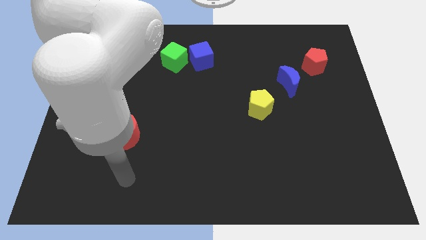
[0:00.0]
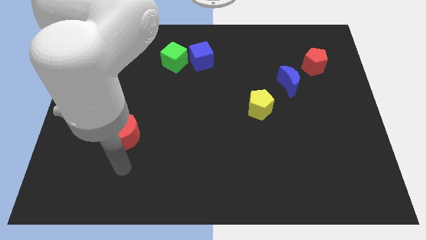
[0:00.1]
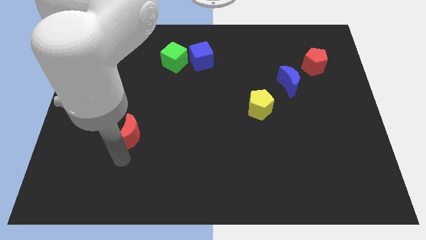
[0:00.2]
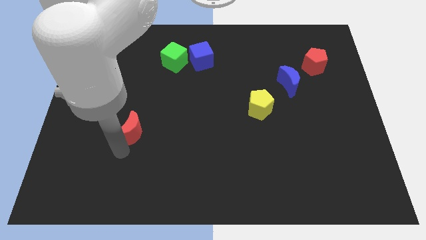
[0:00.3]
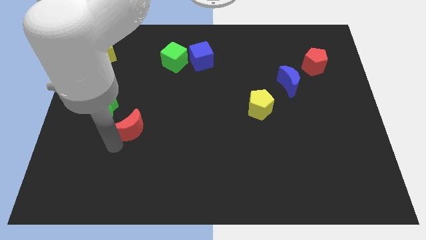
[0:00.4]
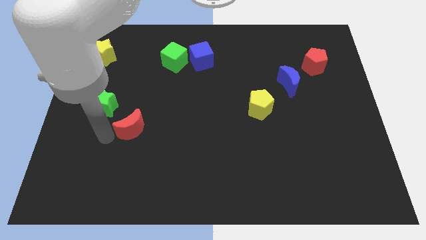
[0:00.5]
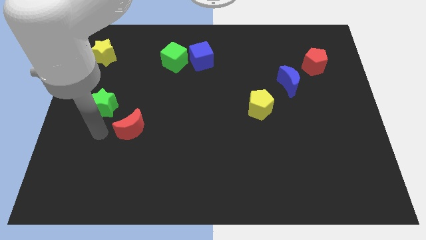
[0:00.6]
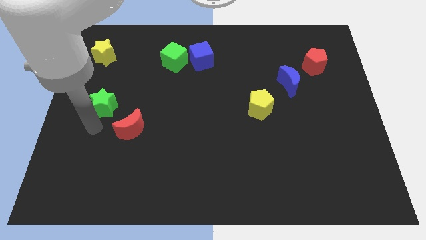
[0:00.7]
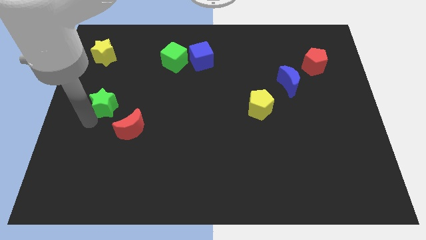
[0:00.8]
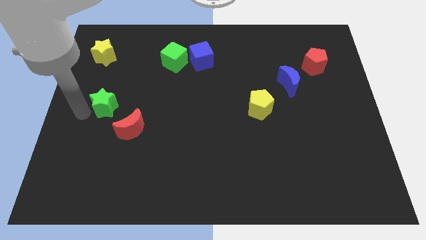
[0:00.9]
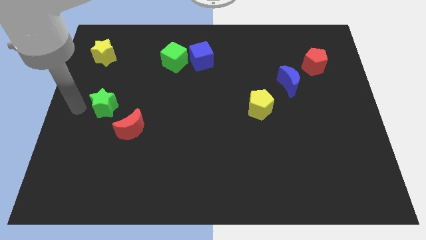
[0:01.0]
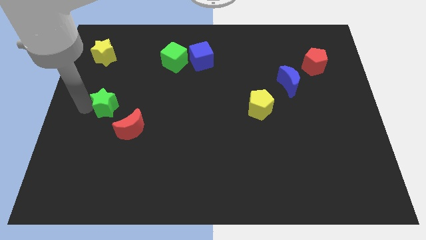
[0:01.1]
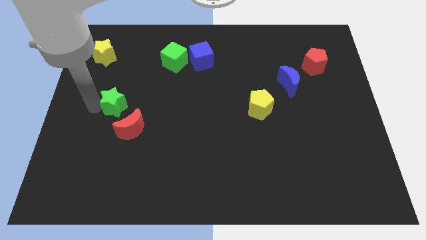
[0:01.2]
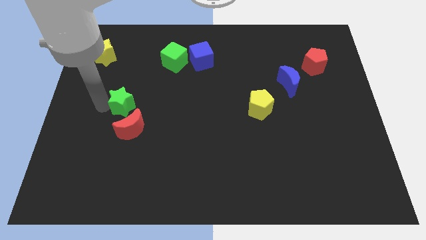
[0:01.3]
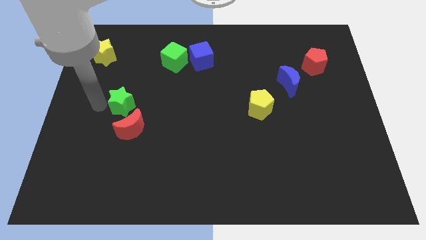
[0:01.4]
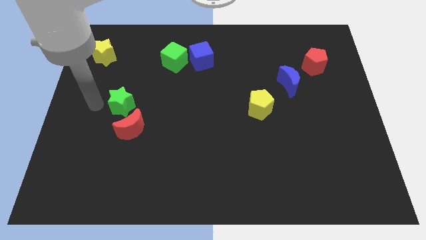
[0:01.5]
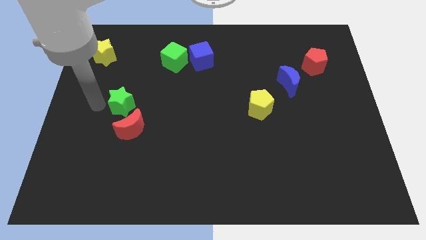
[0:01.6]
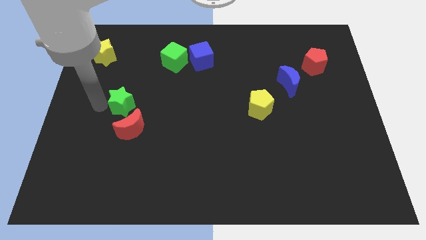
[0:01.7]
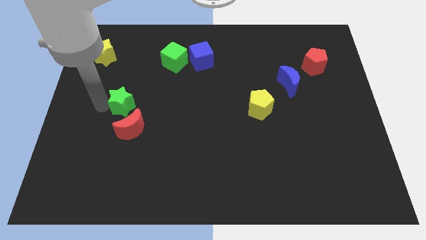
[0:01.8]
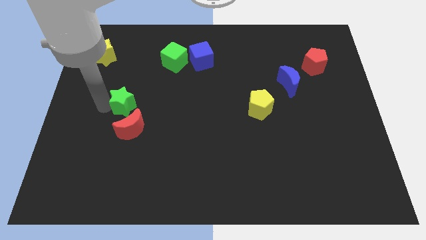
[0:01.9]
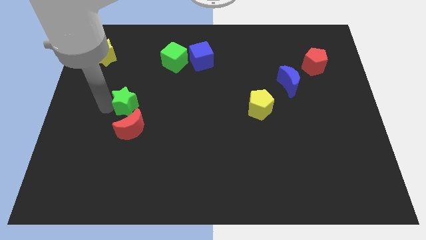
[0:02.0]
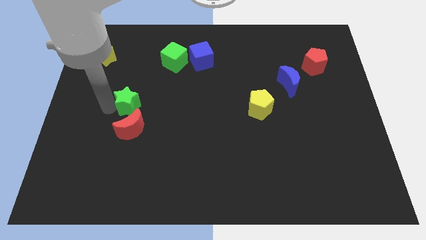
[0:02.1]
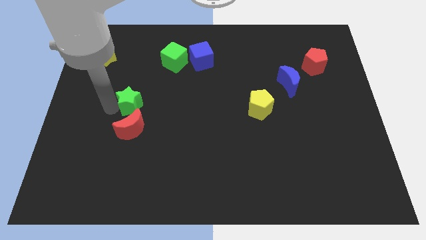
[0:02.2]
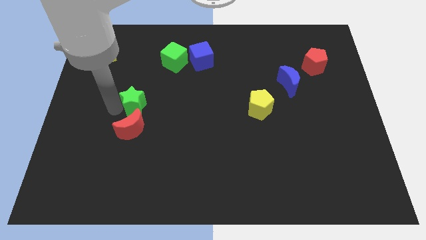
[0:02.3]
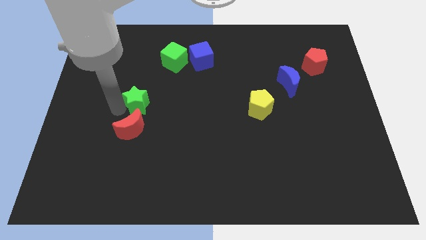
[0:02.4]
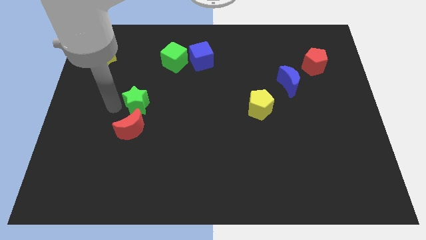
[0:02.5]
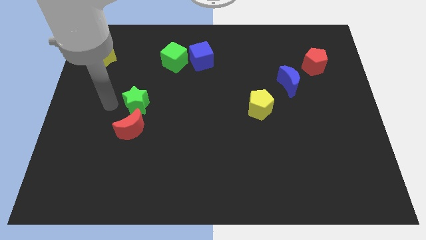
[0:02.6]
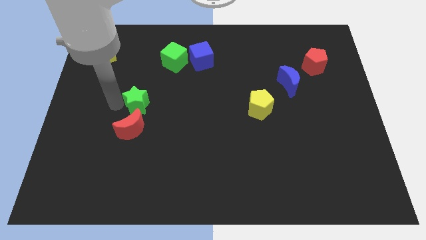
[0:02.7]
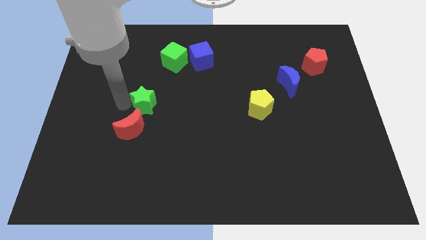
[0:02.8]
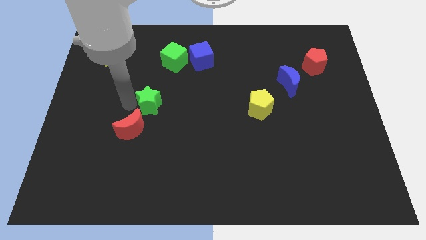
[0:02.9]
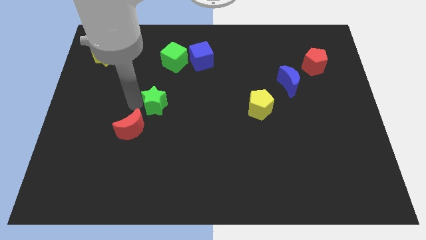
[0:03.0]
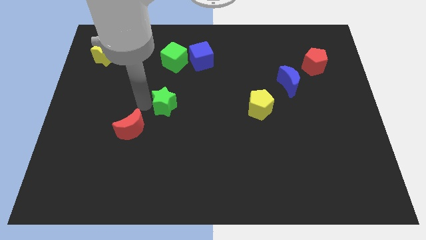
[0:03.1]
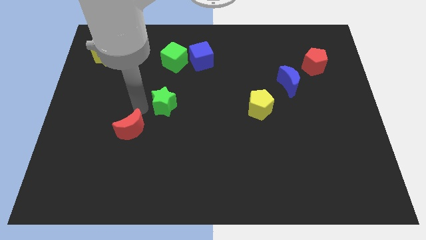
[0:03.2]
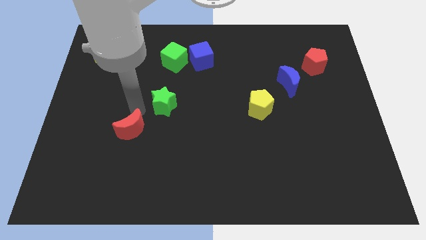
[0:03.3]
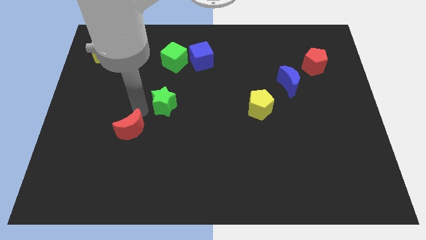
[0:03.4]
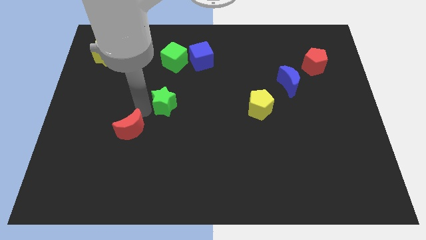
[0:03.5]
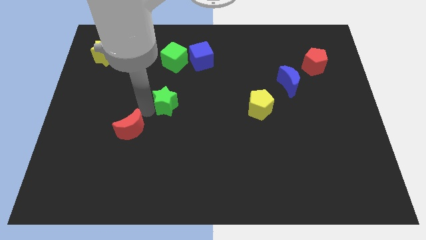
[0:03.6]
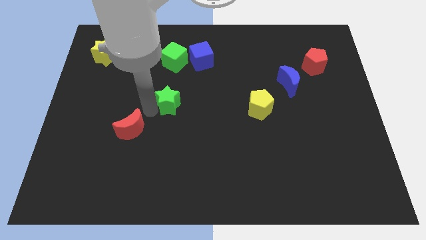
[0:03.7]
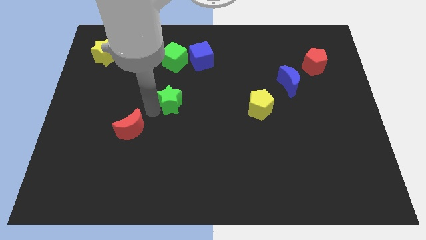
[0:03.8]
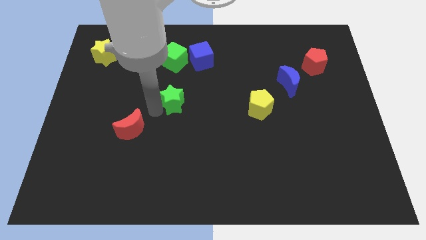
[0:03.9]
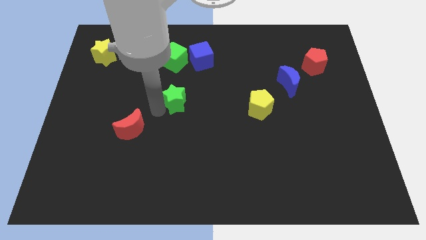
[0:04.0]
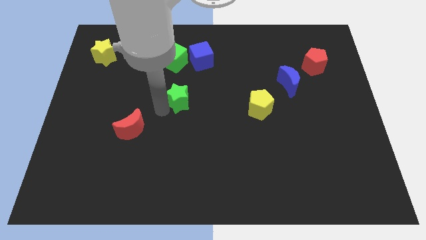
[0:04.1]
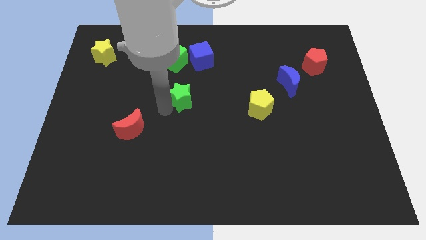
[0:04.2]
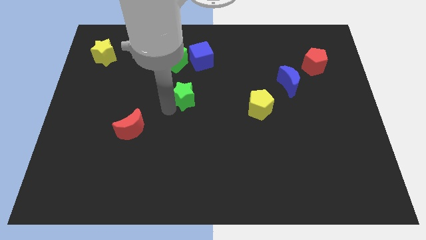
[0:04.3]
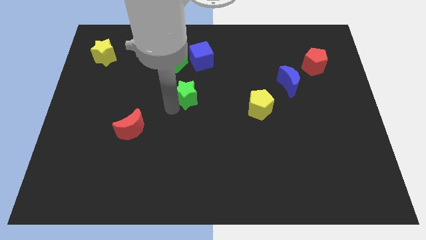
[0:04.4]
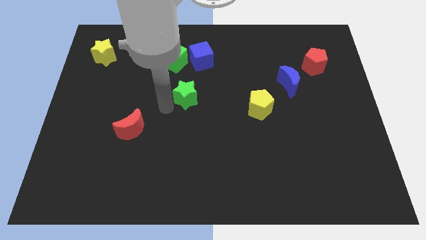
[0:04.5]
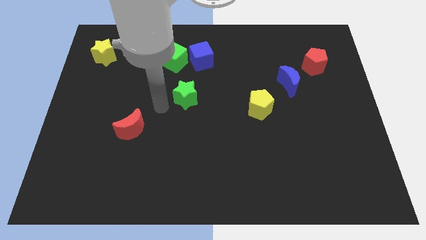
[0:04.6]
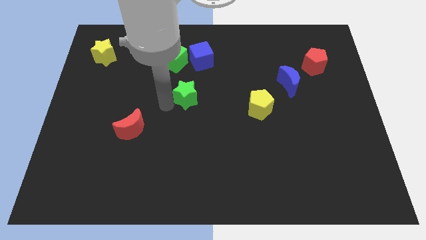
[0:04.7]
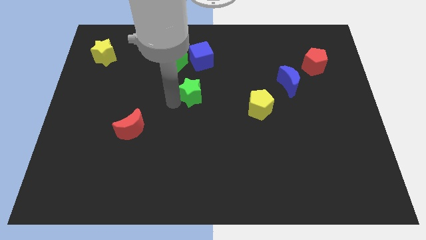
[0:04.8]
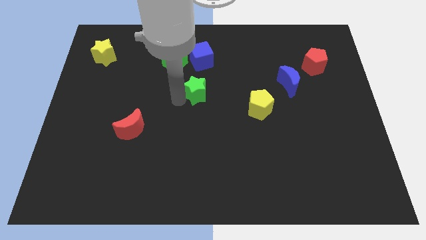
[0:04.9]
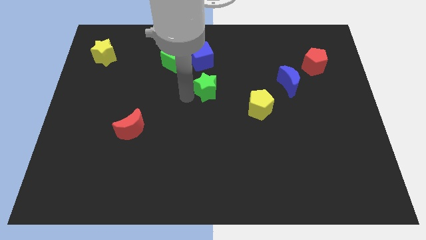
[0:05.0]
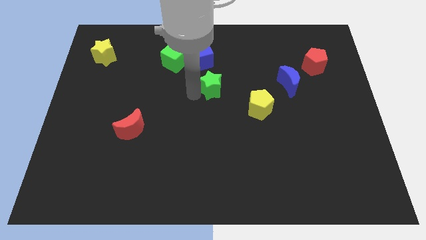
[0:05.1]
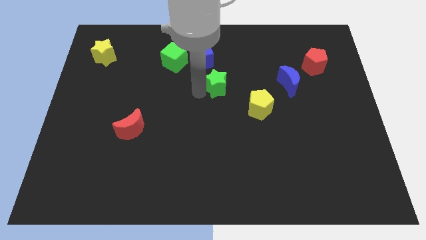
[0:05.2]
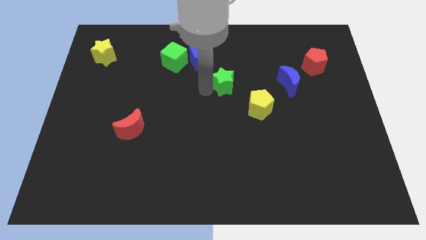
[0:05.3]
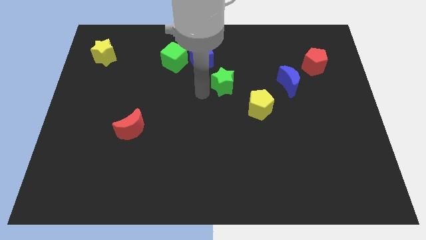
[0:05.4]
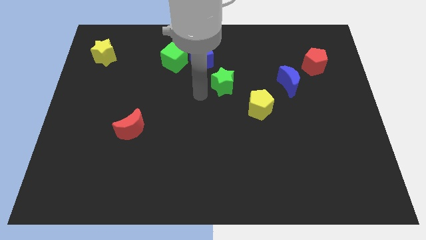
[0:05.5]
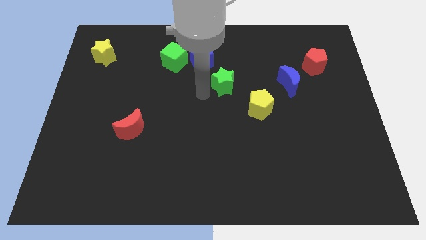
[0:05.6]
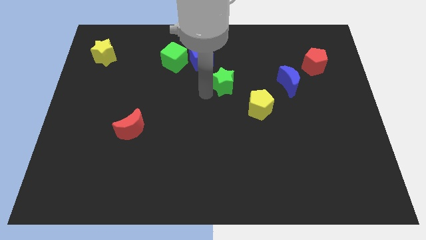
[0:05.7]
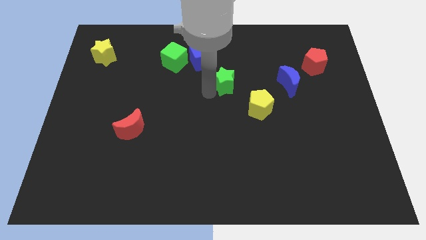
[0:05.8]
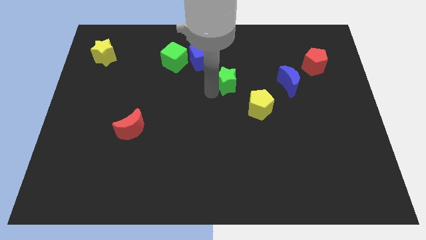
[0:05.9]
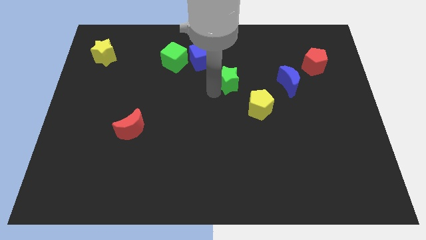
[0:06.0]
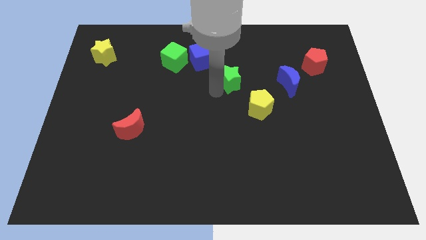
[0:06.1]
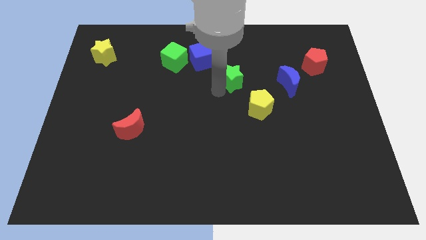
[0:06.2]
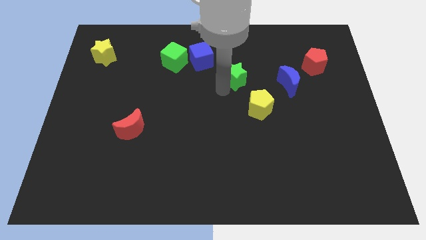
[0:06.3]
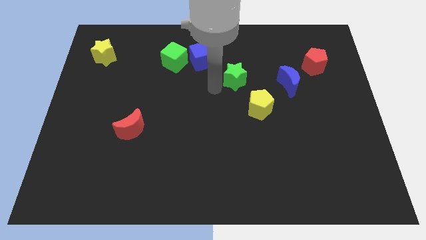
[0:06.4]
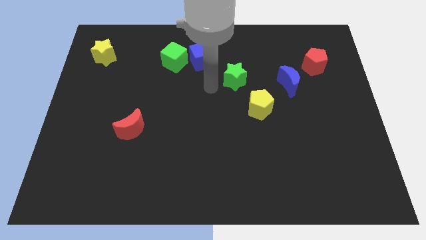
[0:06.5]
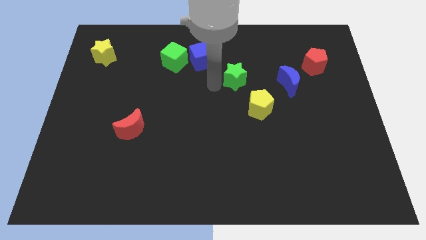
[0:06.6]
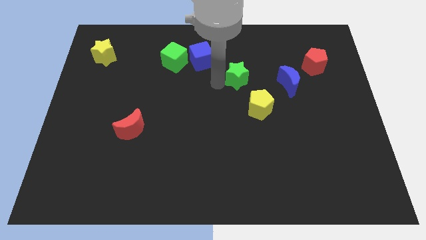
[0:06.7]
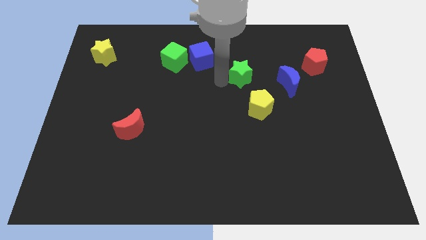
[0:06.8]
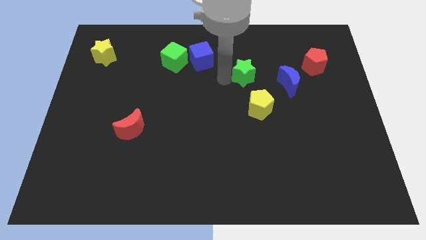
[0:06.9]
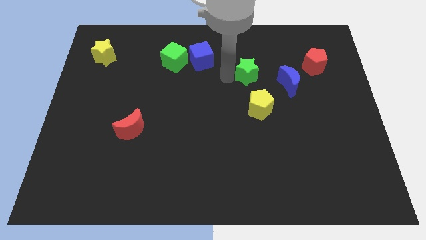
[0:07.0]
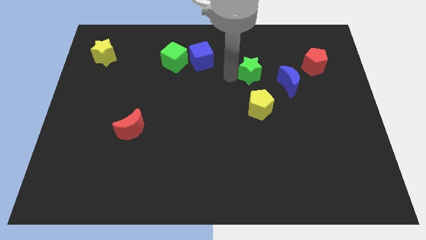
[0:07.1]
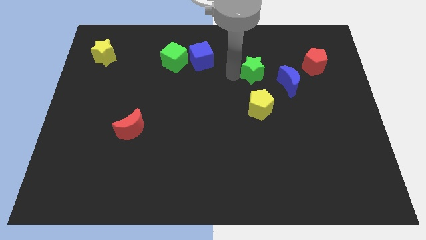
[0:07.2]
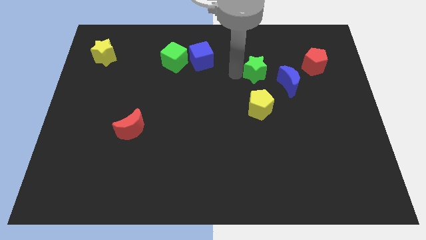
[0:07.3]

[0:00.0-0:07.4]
slide the green star left of the red pentagon
